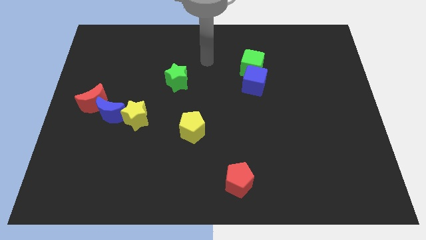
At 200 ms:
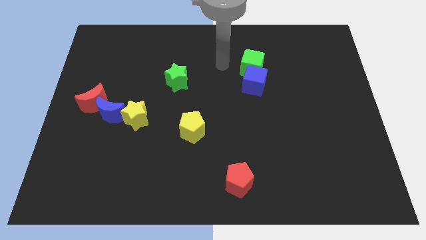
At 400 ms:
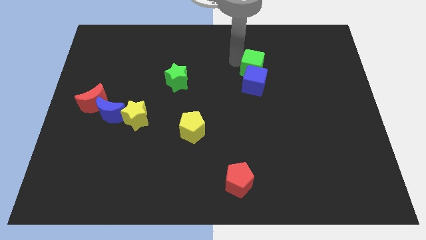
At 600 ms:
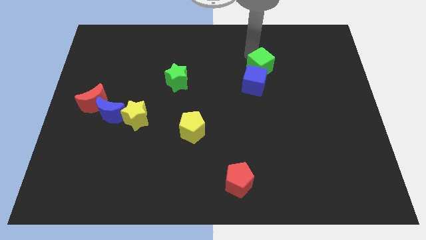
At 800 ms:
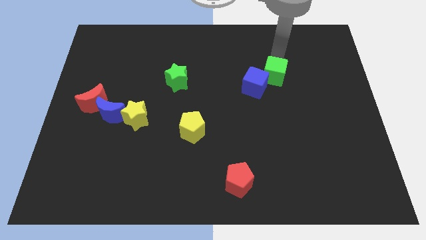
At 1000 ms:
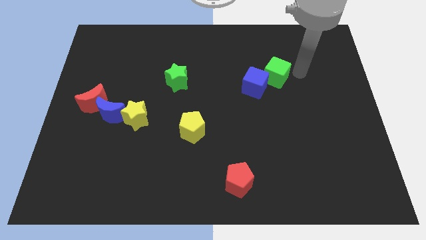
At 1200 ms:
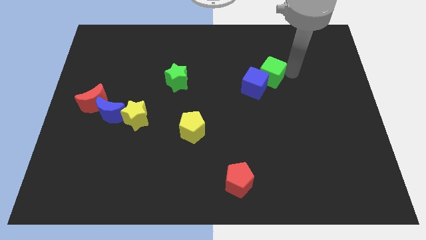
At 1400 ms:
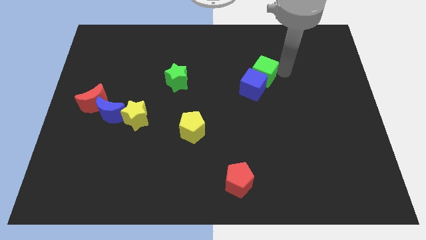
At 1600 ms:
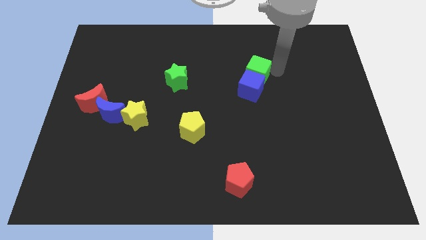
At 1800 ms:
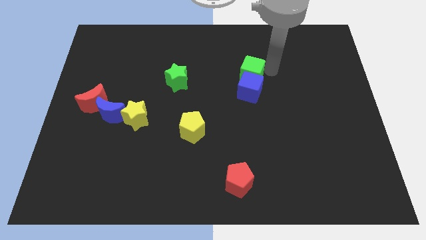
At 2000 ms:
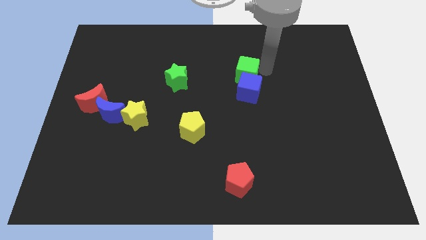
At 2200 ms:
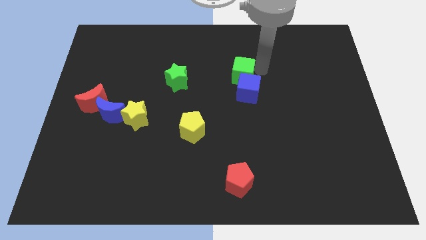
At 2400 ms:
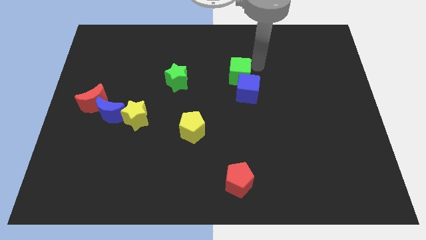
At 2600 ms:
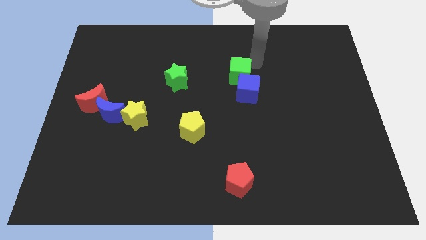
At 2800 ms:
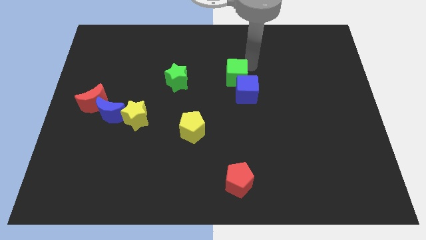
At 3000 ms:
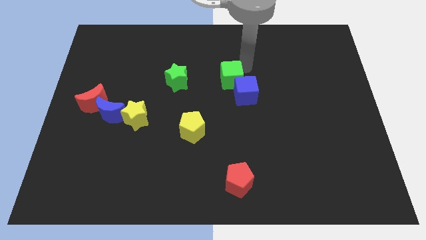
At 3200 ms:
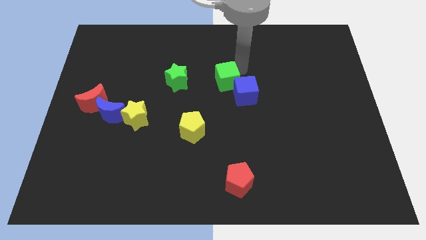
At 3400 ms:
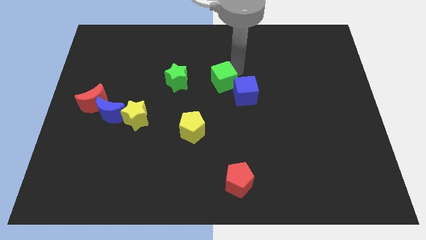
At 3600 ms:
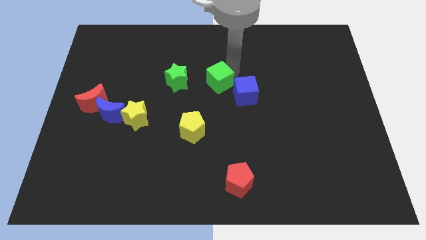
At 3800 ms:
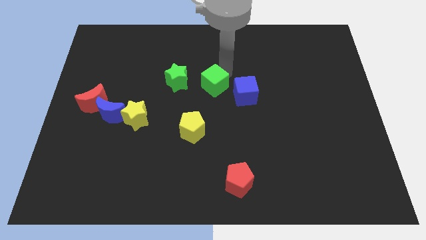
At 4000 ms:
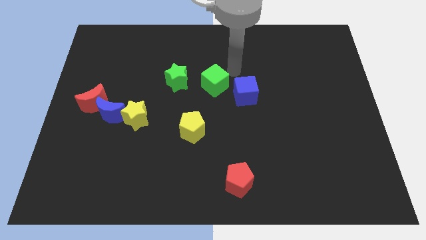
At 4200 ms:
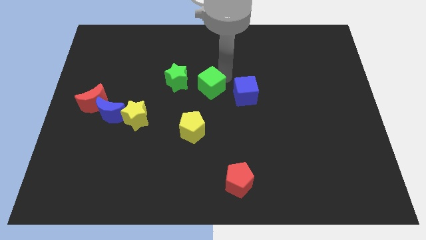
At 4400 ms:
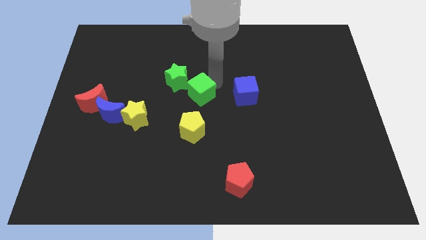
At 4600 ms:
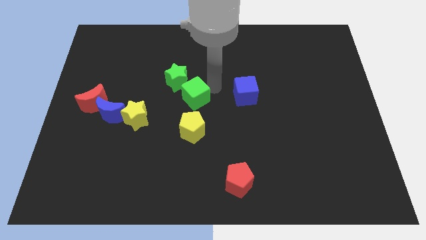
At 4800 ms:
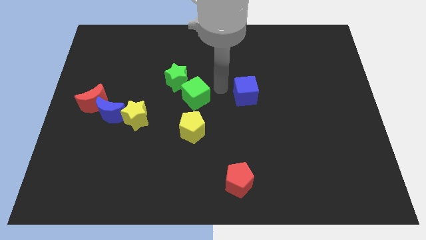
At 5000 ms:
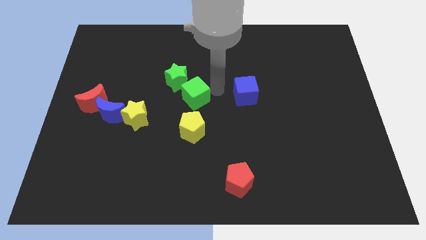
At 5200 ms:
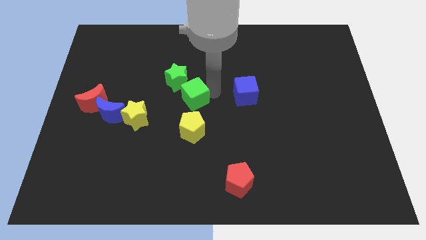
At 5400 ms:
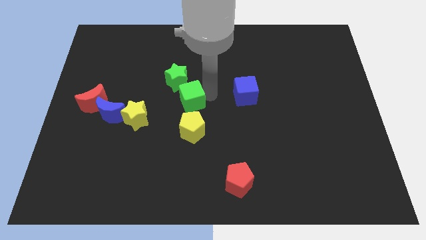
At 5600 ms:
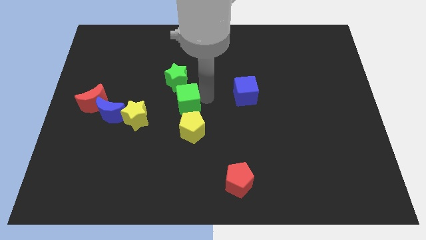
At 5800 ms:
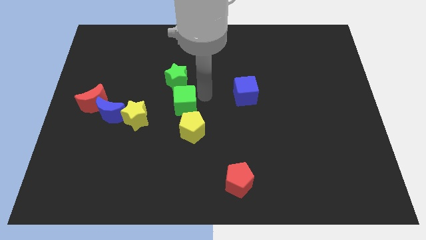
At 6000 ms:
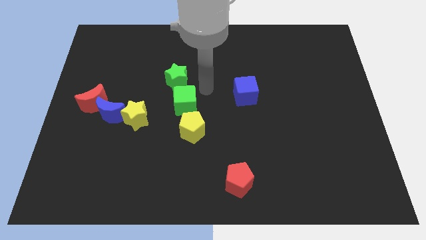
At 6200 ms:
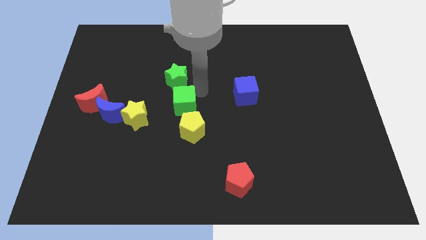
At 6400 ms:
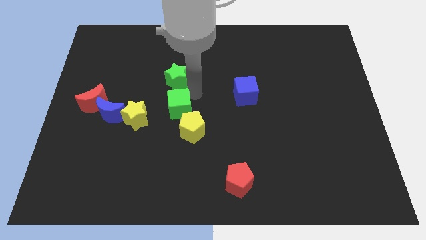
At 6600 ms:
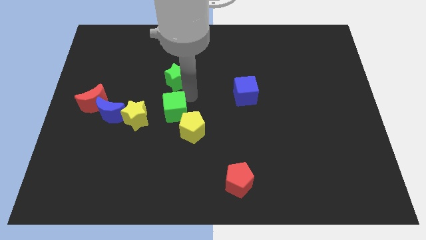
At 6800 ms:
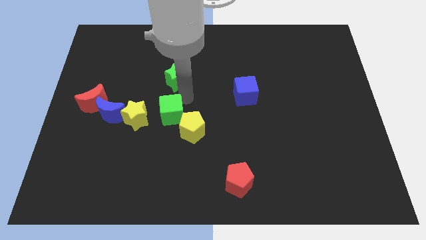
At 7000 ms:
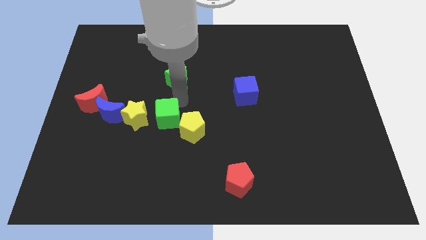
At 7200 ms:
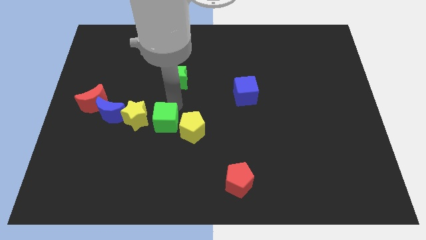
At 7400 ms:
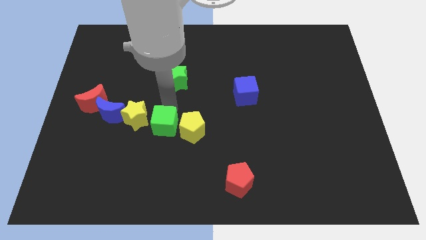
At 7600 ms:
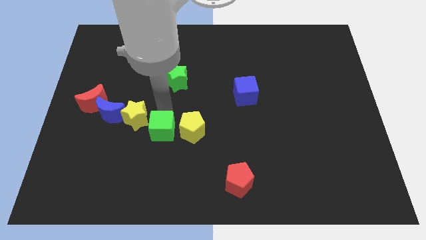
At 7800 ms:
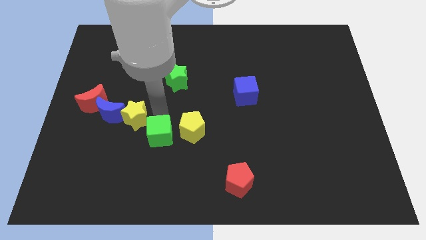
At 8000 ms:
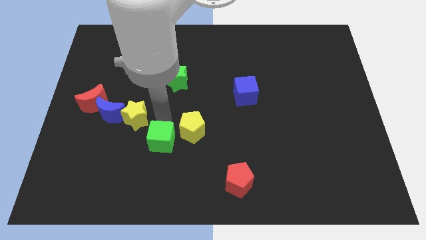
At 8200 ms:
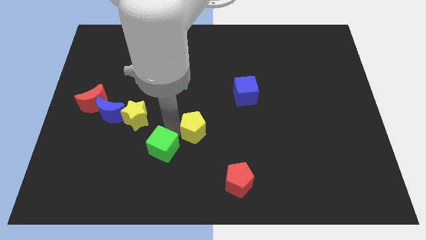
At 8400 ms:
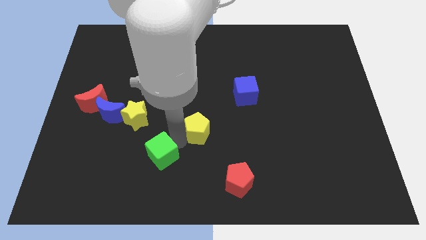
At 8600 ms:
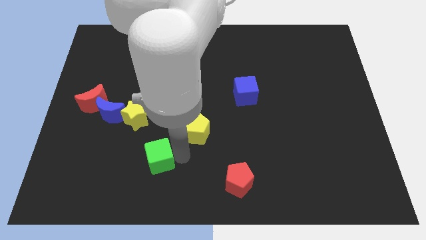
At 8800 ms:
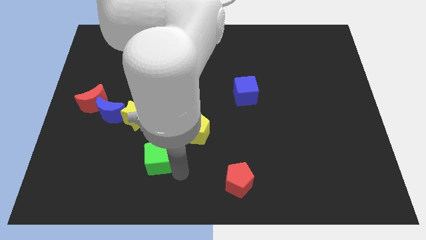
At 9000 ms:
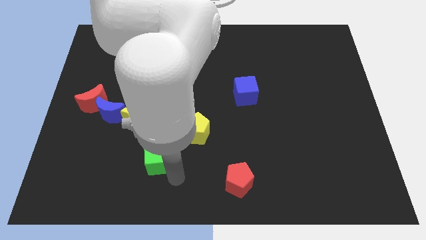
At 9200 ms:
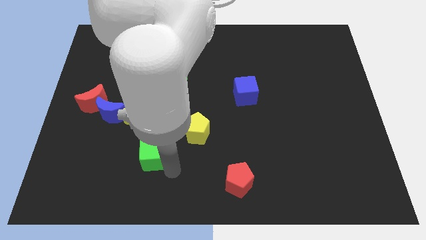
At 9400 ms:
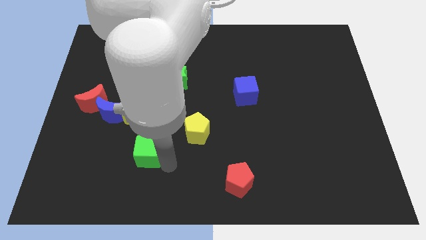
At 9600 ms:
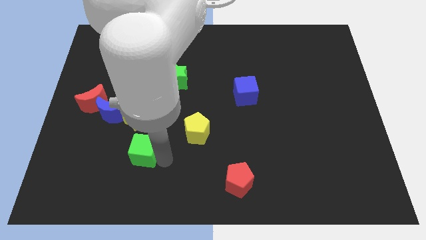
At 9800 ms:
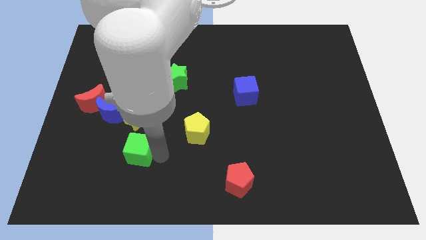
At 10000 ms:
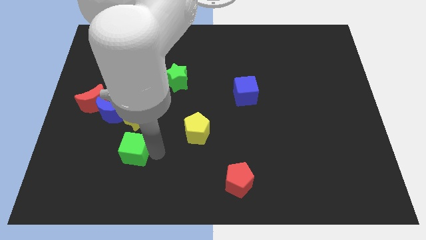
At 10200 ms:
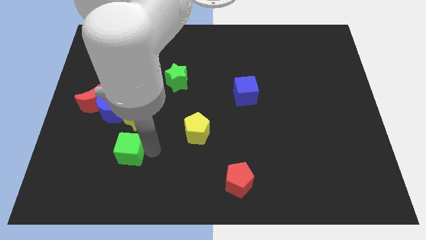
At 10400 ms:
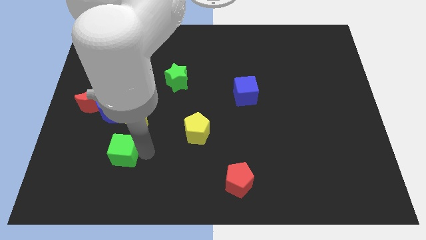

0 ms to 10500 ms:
move the green cube to the bottom side of the blue moon

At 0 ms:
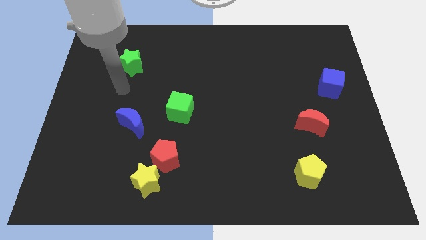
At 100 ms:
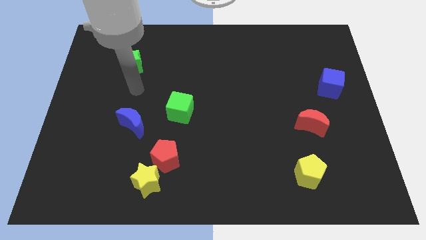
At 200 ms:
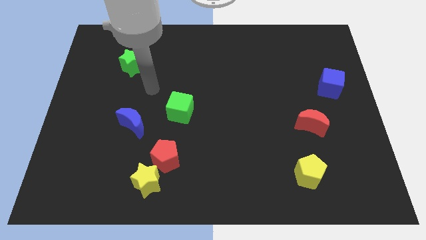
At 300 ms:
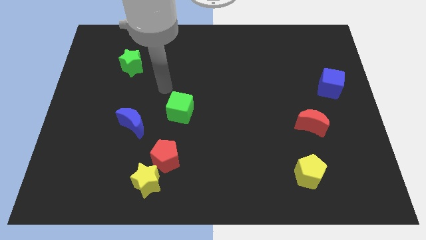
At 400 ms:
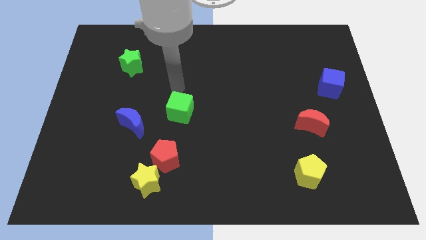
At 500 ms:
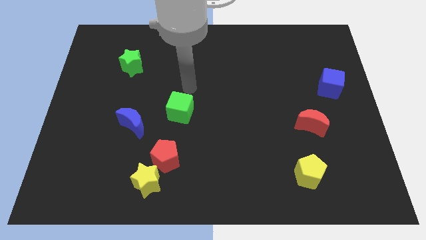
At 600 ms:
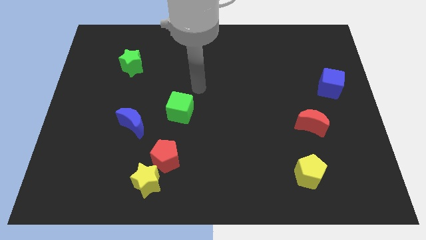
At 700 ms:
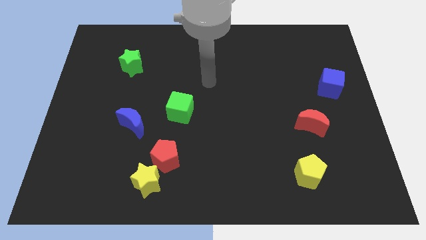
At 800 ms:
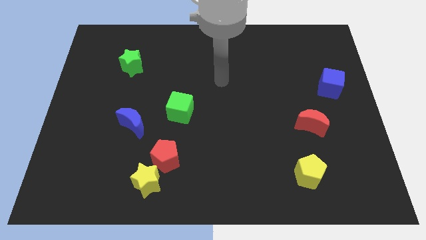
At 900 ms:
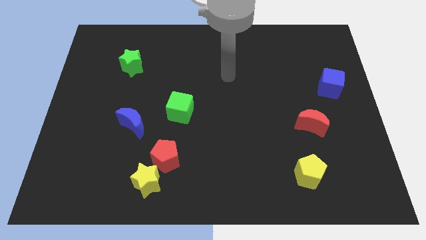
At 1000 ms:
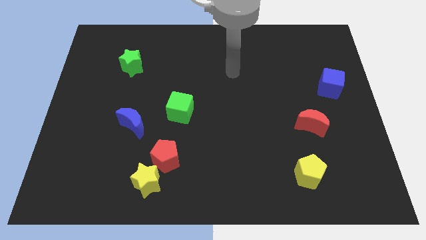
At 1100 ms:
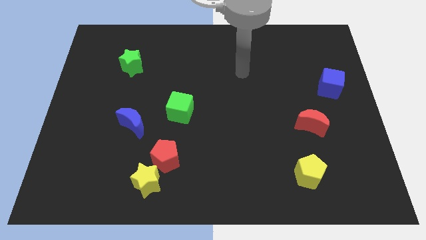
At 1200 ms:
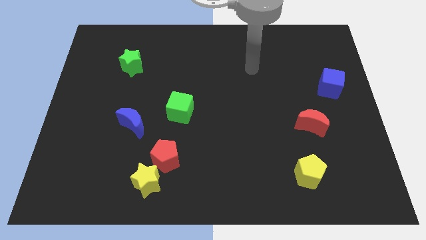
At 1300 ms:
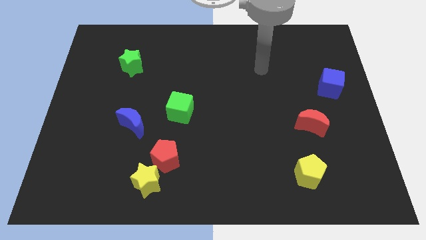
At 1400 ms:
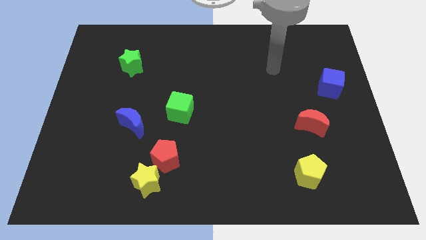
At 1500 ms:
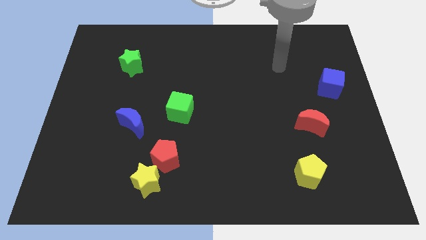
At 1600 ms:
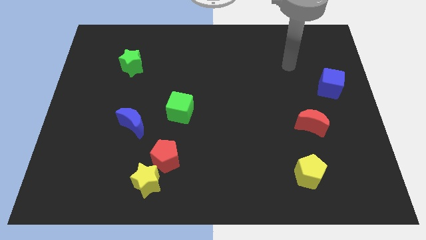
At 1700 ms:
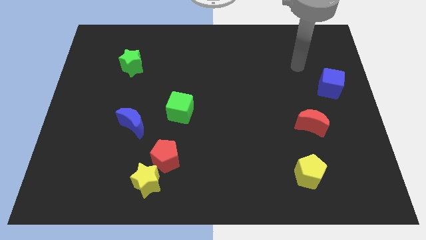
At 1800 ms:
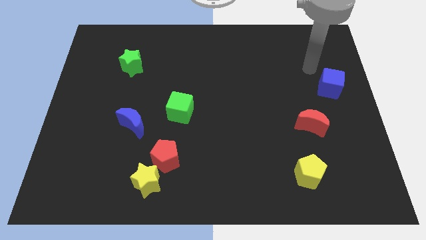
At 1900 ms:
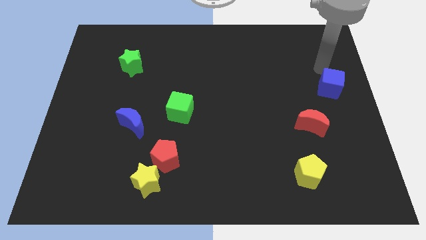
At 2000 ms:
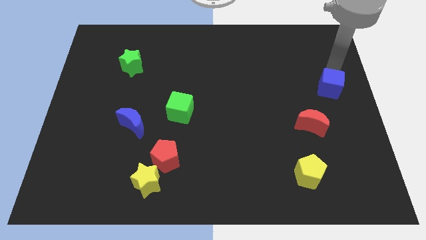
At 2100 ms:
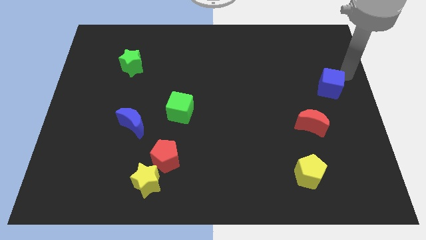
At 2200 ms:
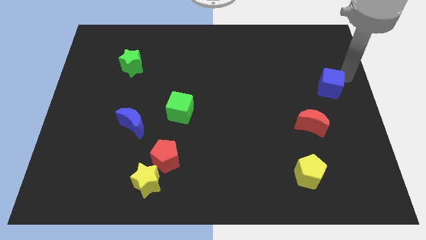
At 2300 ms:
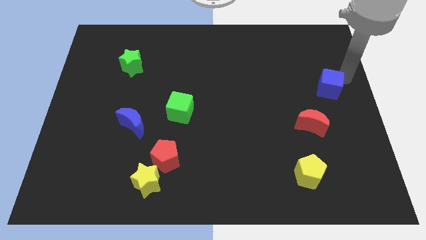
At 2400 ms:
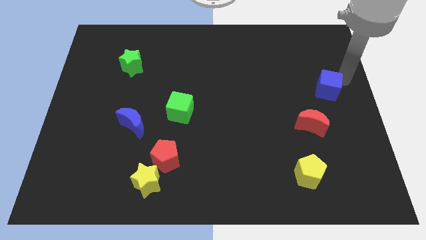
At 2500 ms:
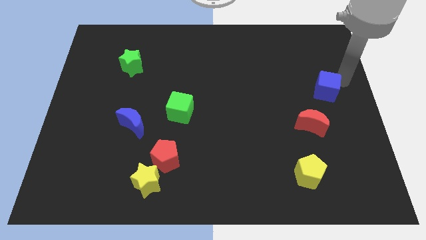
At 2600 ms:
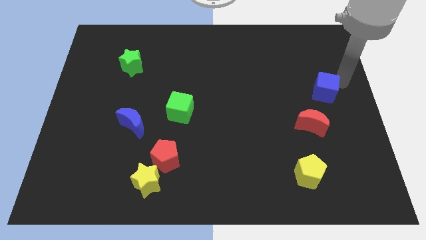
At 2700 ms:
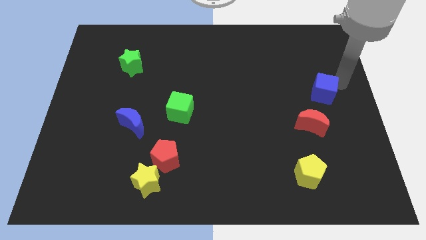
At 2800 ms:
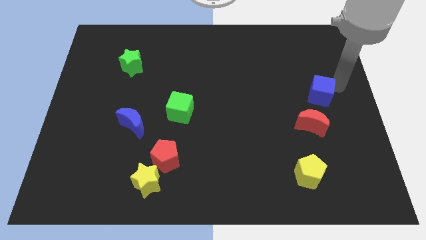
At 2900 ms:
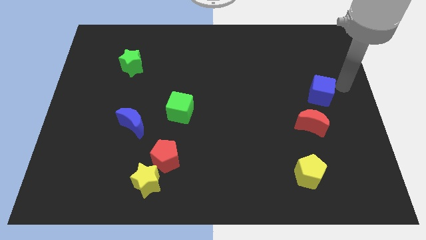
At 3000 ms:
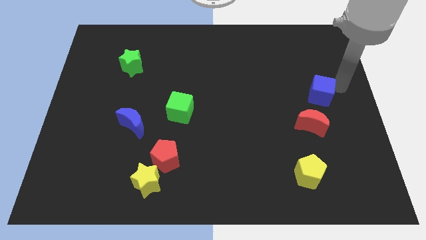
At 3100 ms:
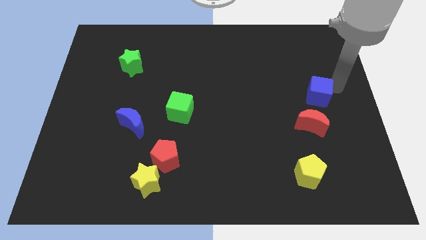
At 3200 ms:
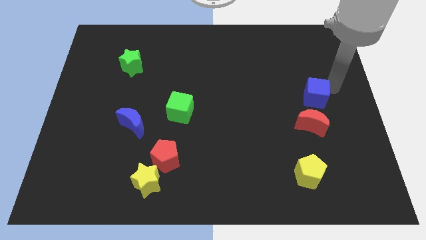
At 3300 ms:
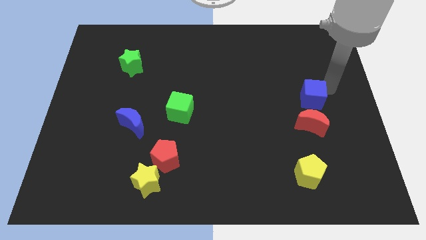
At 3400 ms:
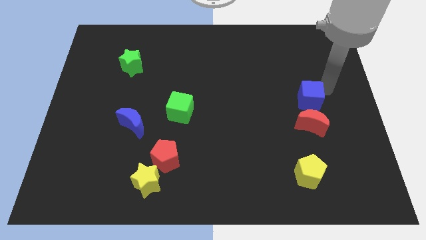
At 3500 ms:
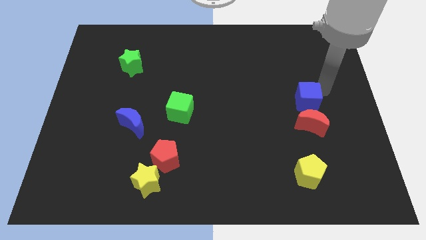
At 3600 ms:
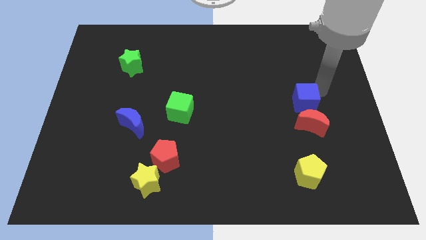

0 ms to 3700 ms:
move the blue cube to the top left of the red moon
